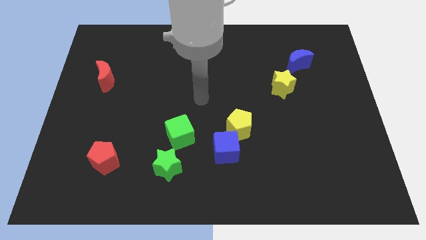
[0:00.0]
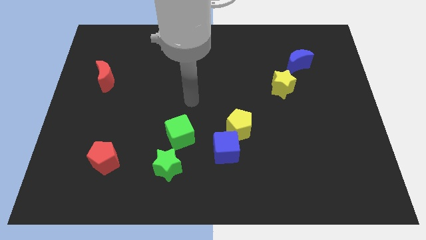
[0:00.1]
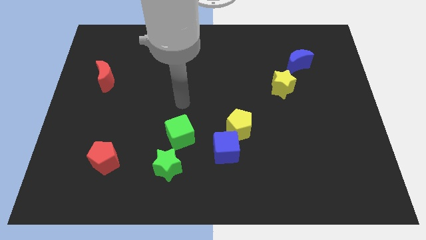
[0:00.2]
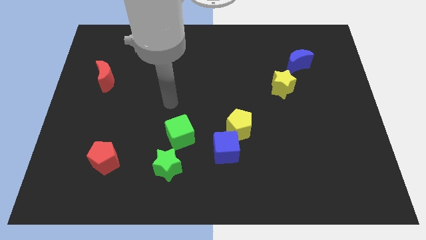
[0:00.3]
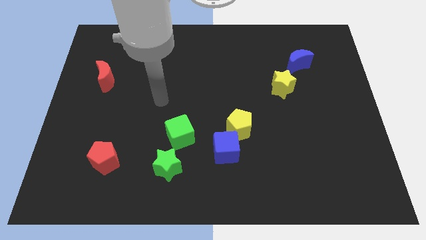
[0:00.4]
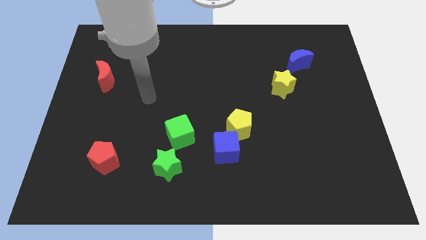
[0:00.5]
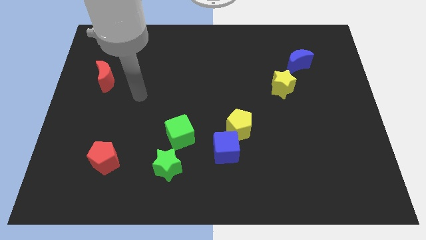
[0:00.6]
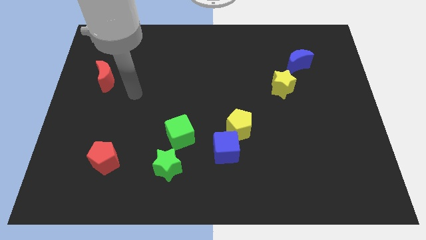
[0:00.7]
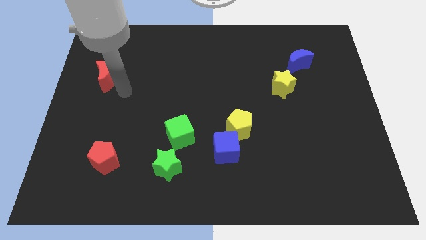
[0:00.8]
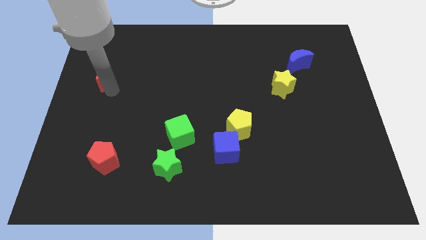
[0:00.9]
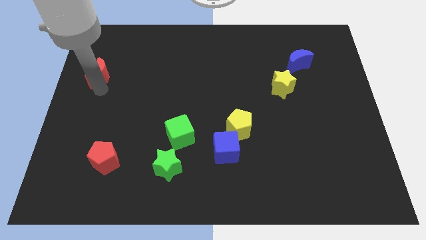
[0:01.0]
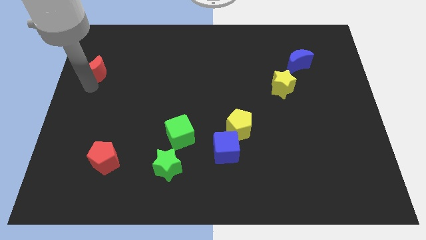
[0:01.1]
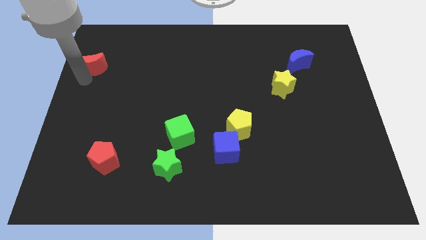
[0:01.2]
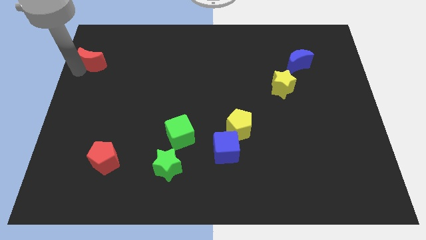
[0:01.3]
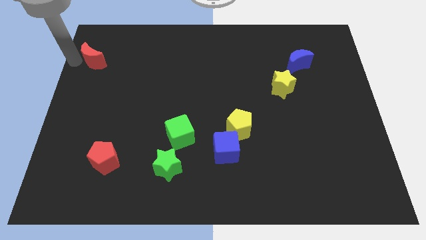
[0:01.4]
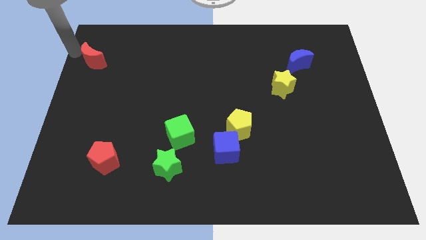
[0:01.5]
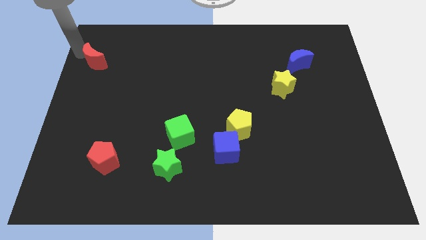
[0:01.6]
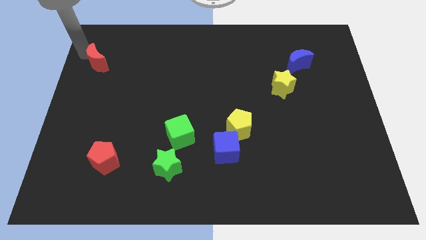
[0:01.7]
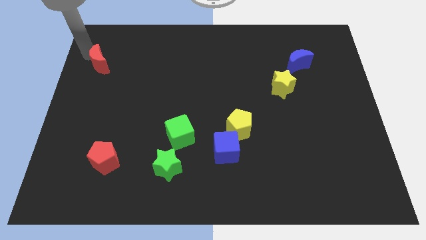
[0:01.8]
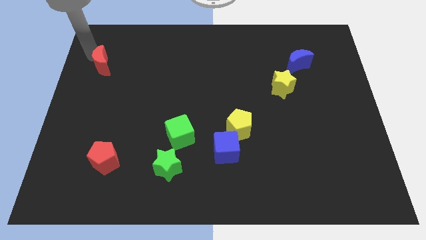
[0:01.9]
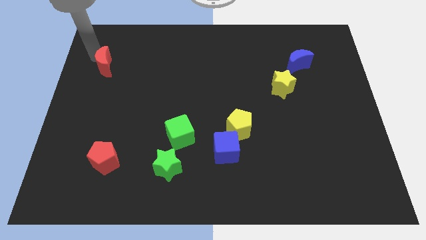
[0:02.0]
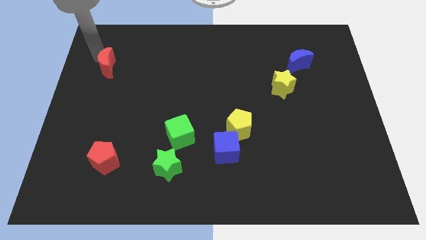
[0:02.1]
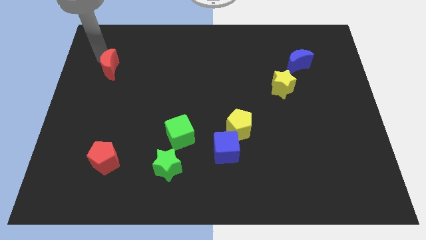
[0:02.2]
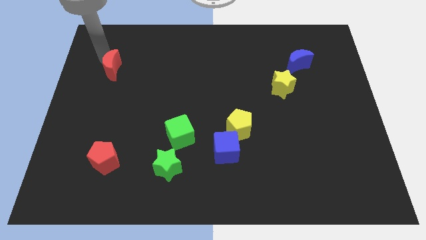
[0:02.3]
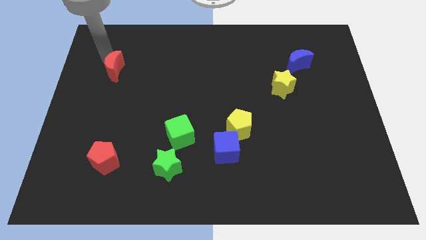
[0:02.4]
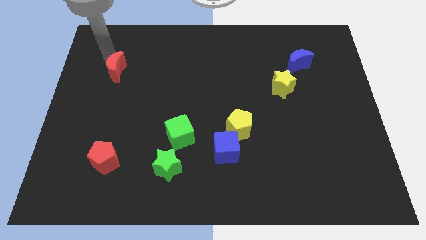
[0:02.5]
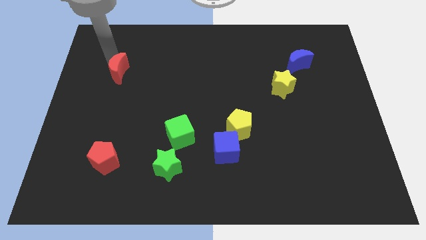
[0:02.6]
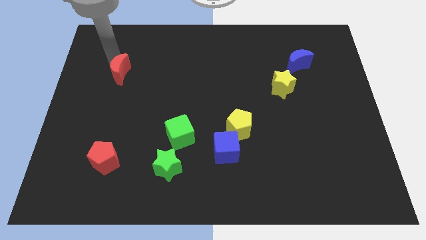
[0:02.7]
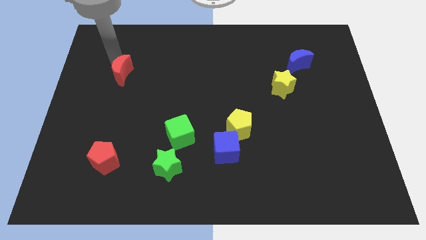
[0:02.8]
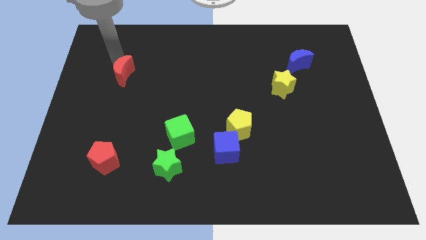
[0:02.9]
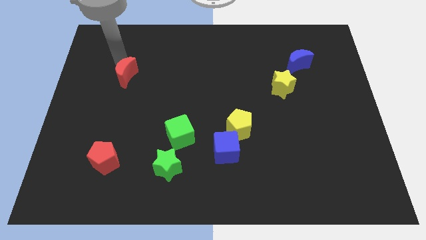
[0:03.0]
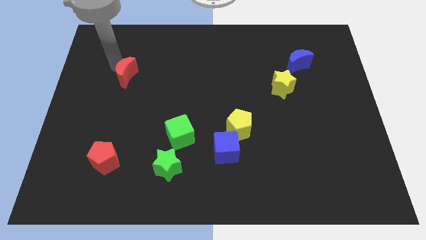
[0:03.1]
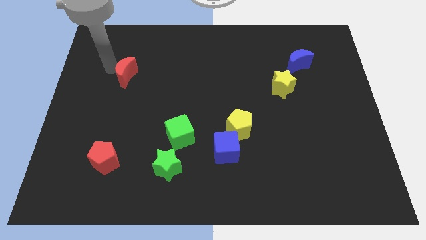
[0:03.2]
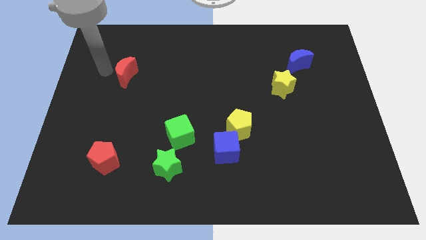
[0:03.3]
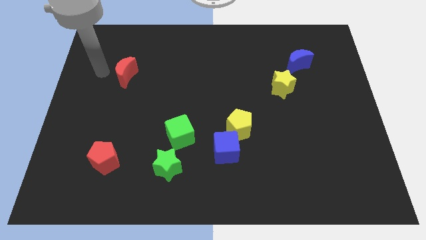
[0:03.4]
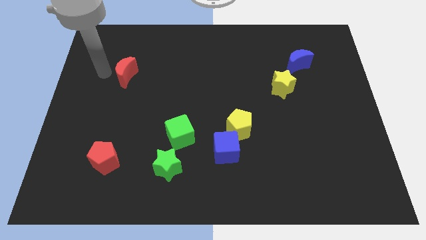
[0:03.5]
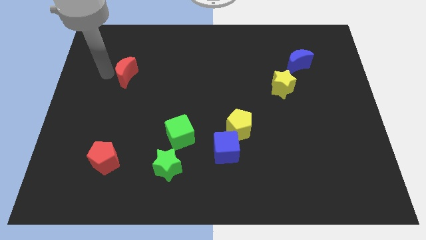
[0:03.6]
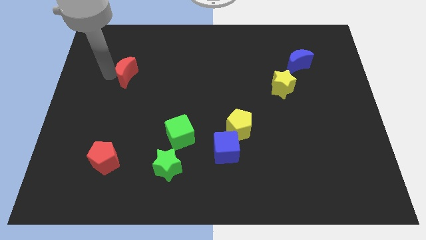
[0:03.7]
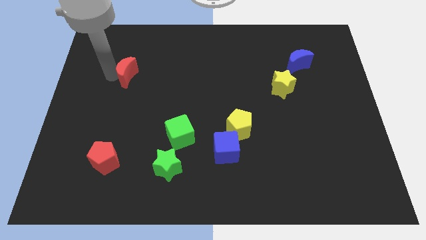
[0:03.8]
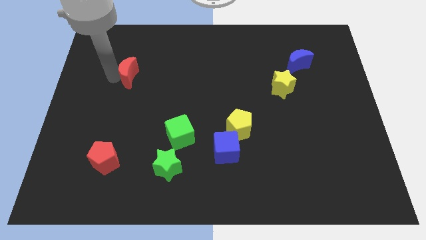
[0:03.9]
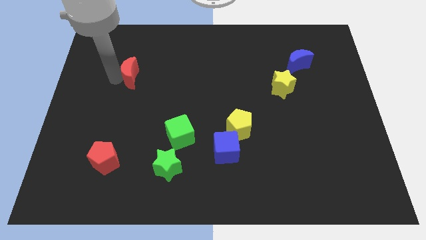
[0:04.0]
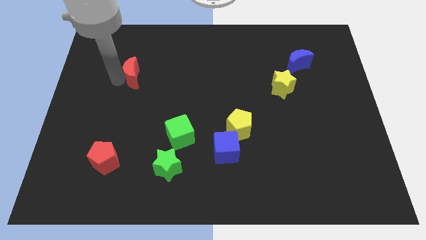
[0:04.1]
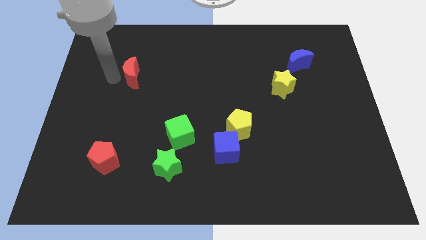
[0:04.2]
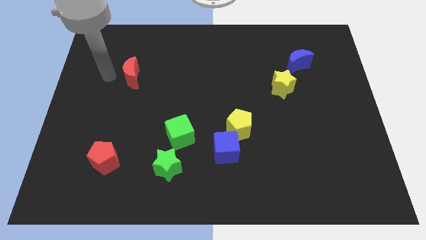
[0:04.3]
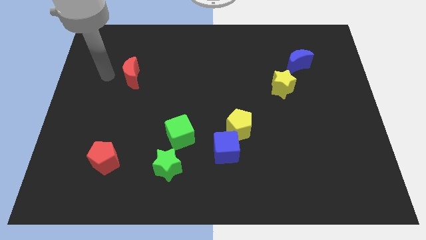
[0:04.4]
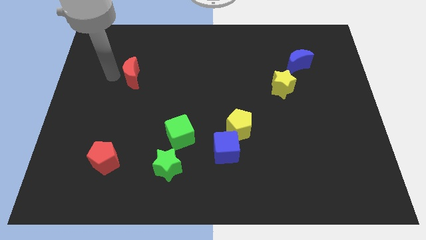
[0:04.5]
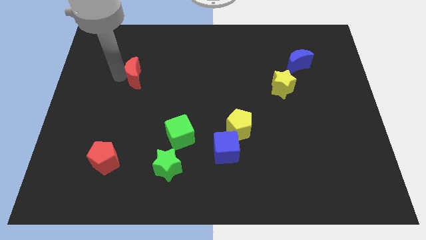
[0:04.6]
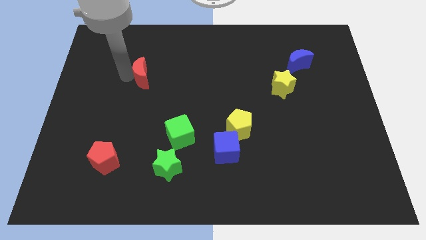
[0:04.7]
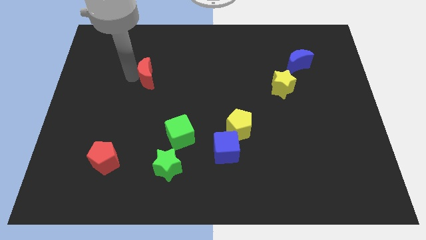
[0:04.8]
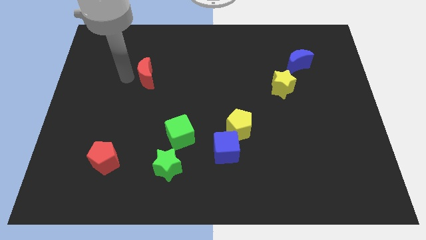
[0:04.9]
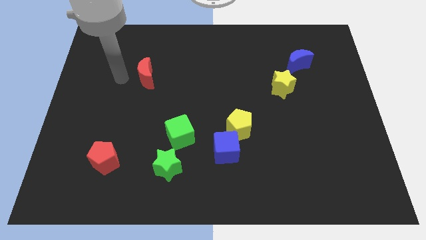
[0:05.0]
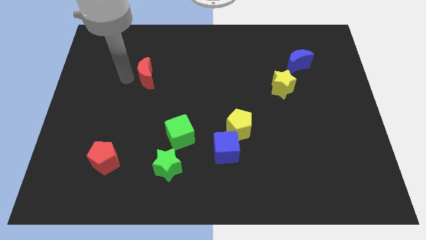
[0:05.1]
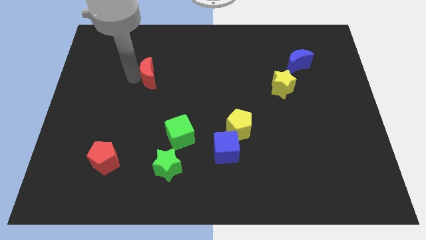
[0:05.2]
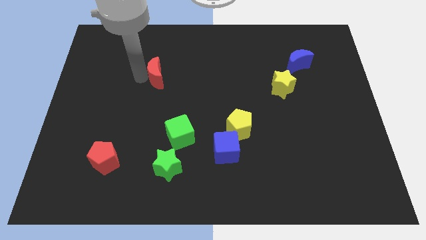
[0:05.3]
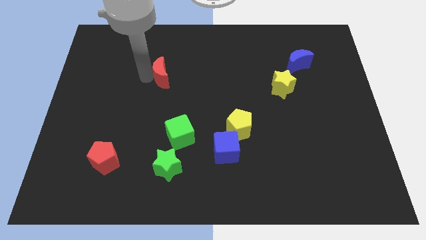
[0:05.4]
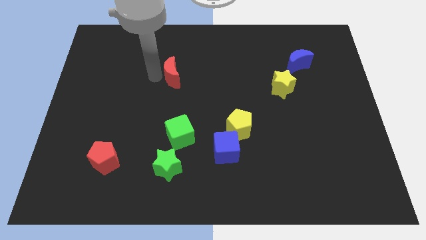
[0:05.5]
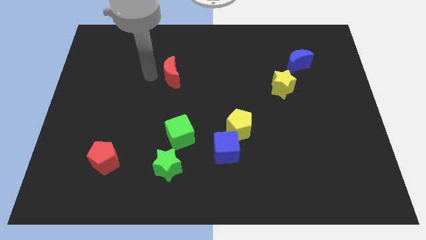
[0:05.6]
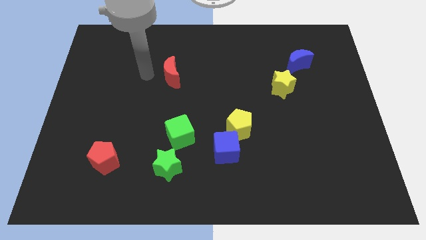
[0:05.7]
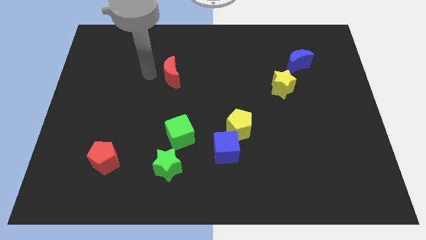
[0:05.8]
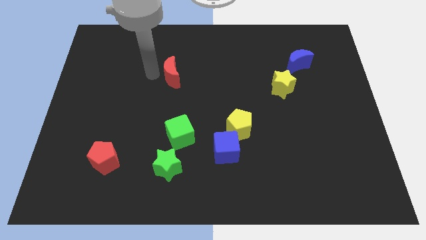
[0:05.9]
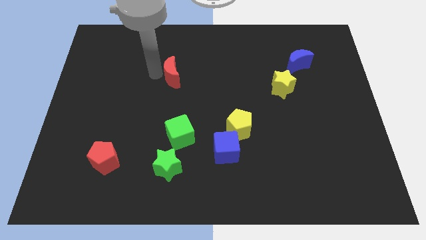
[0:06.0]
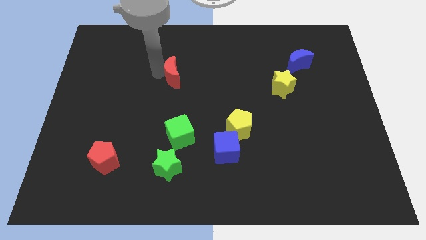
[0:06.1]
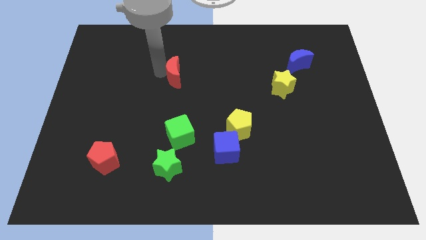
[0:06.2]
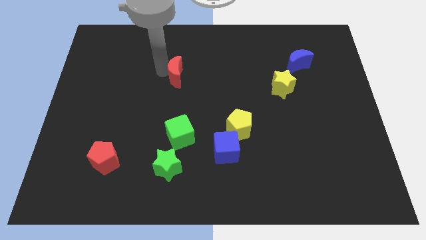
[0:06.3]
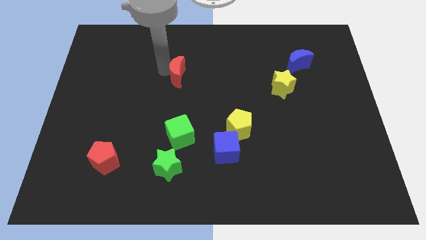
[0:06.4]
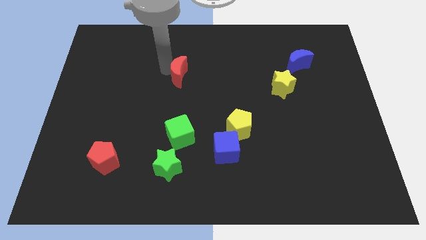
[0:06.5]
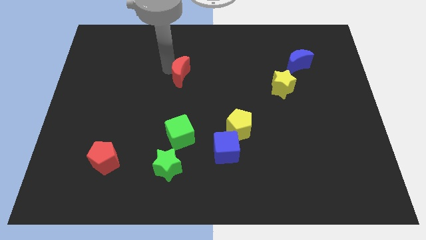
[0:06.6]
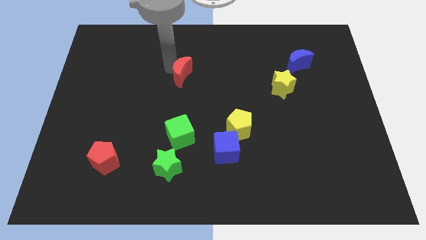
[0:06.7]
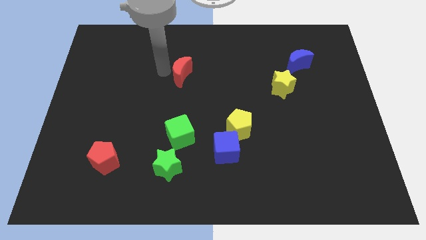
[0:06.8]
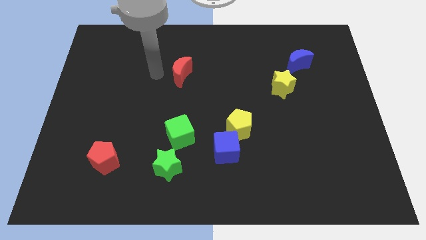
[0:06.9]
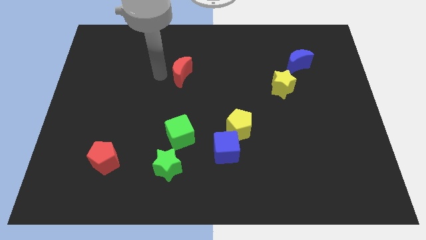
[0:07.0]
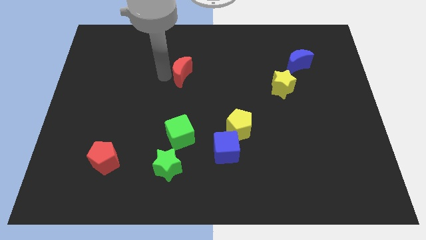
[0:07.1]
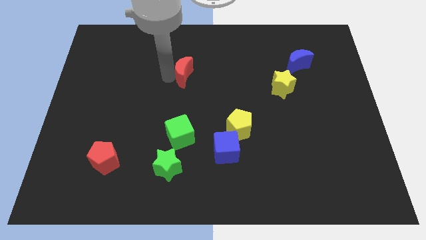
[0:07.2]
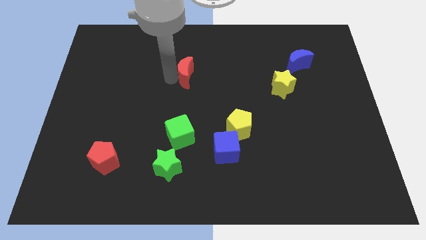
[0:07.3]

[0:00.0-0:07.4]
move the red moon to the right

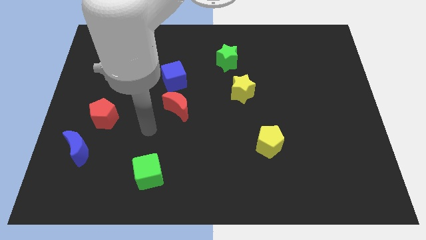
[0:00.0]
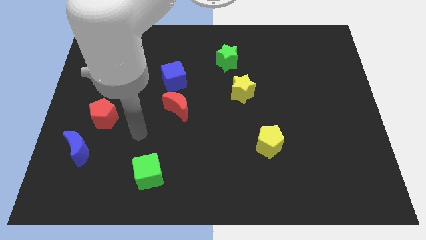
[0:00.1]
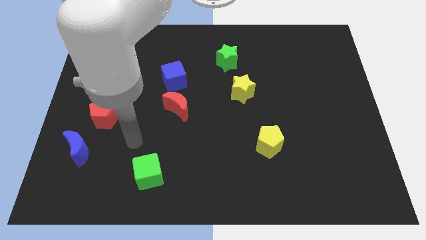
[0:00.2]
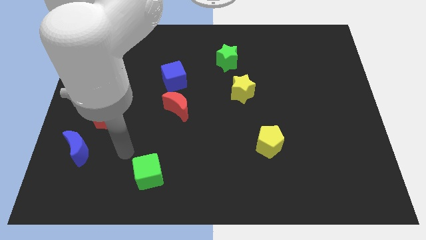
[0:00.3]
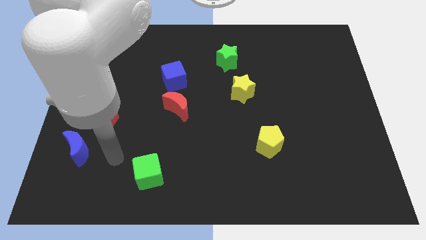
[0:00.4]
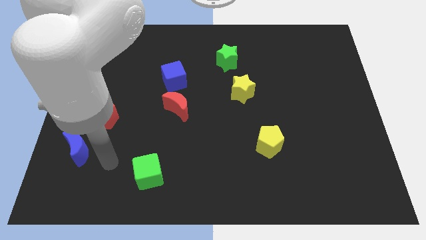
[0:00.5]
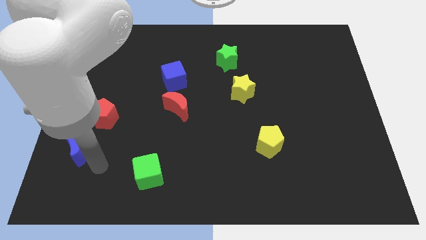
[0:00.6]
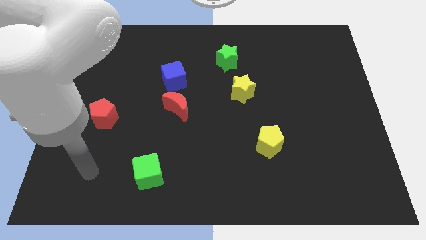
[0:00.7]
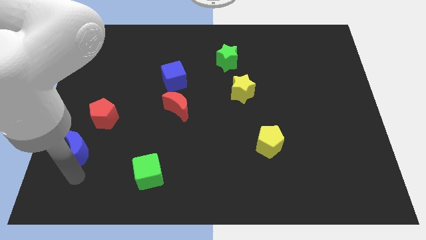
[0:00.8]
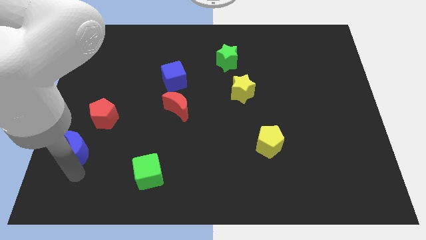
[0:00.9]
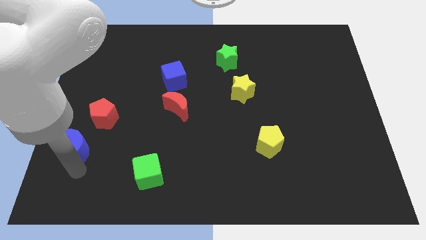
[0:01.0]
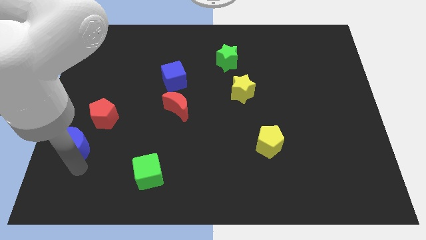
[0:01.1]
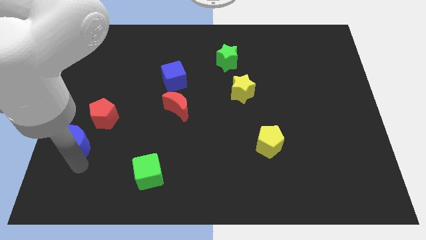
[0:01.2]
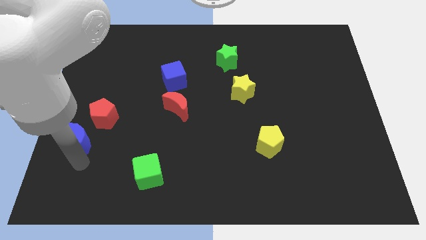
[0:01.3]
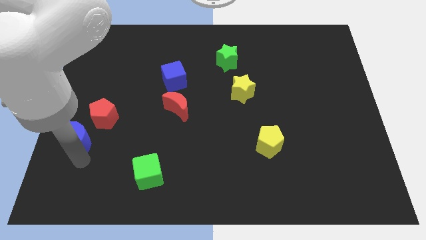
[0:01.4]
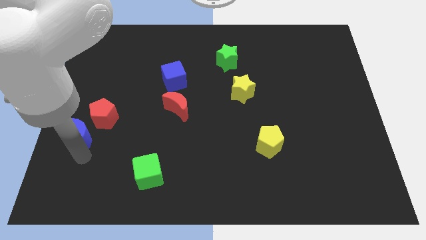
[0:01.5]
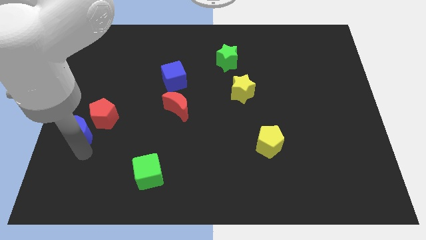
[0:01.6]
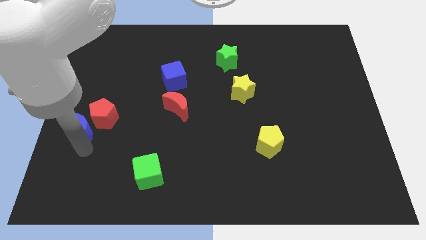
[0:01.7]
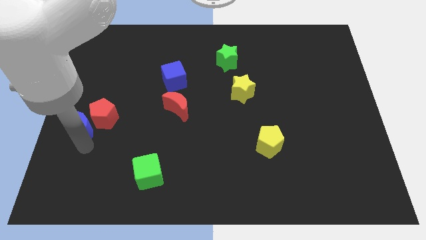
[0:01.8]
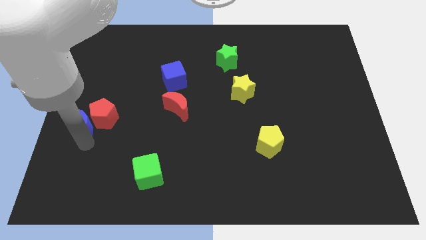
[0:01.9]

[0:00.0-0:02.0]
slightly move the blue moon up
